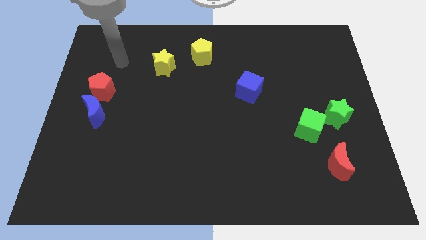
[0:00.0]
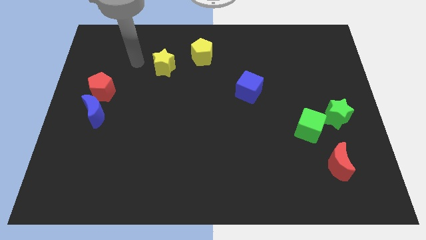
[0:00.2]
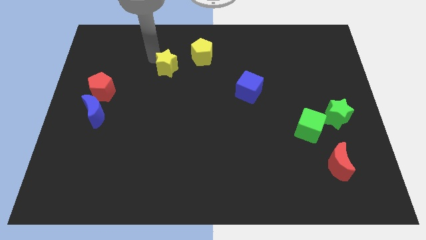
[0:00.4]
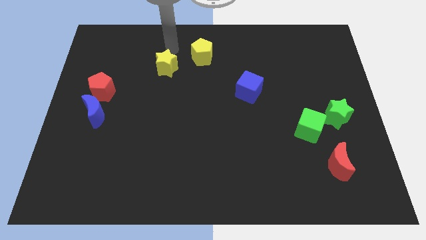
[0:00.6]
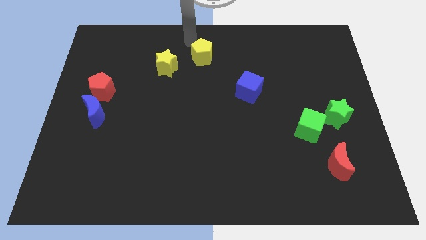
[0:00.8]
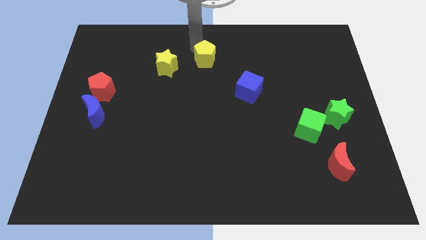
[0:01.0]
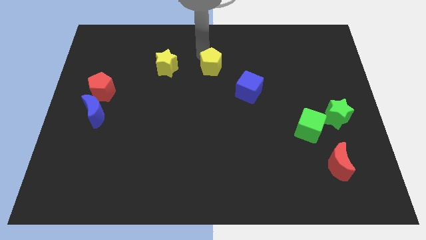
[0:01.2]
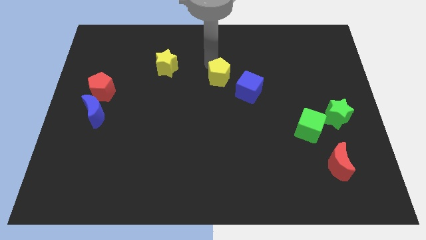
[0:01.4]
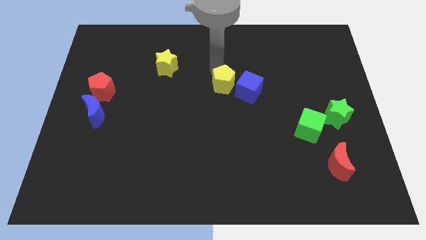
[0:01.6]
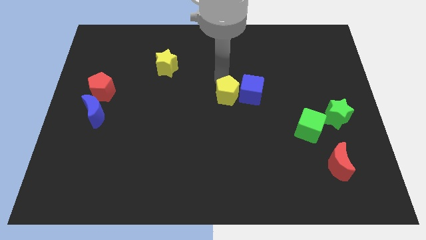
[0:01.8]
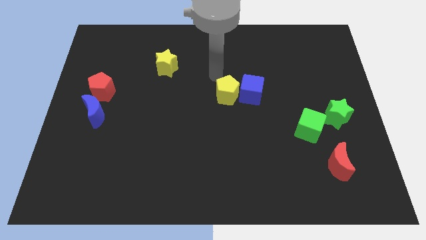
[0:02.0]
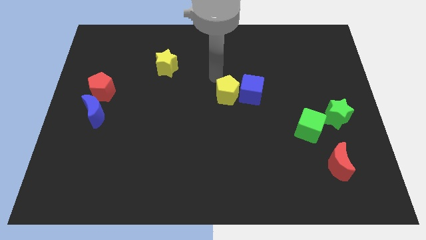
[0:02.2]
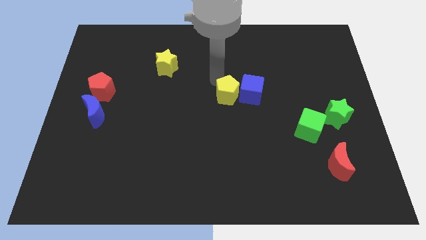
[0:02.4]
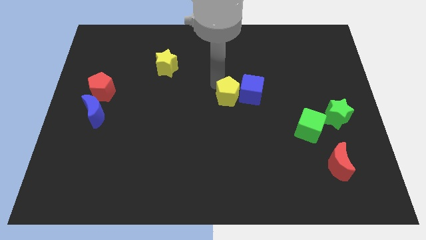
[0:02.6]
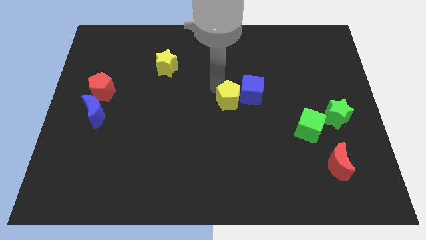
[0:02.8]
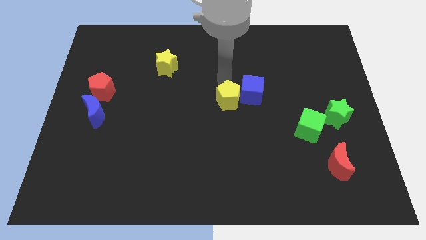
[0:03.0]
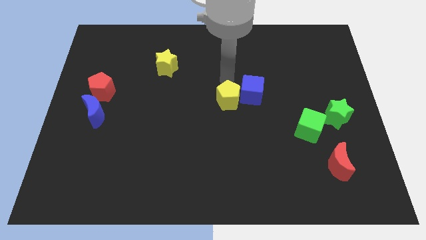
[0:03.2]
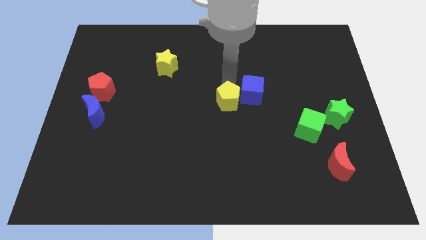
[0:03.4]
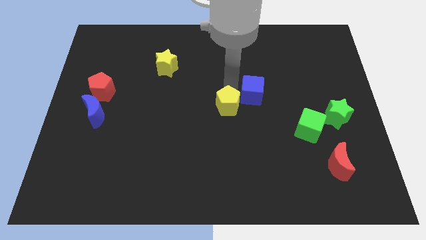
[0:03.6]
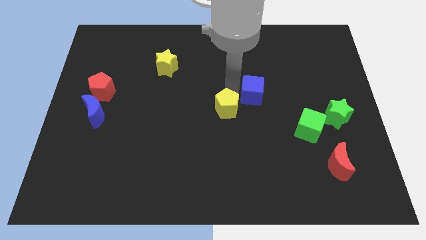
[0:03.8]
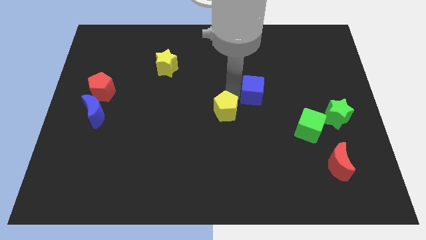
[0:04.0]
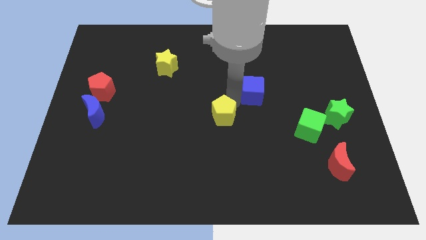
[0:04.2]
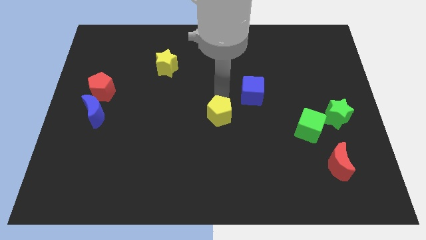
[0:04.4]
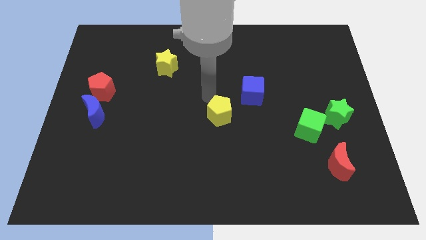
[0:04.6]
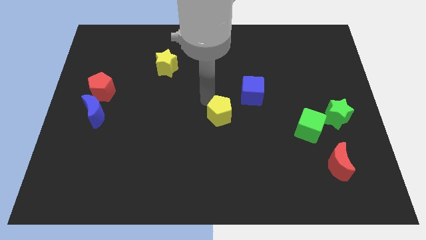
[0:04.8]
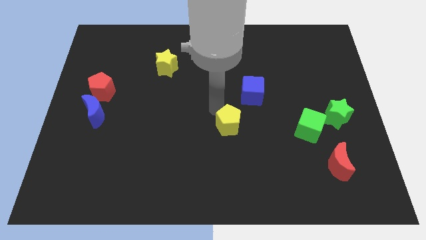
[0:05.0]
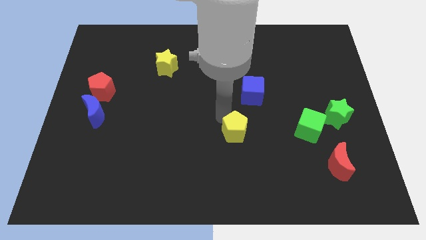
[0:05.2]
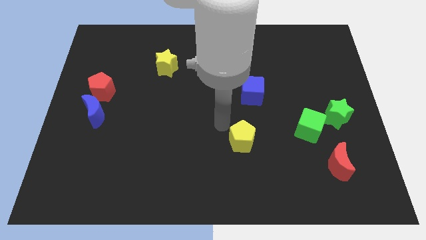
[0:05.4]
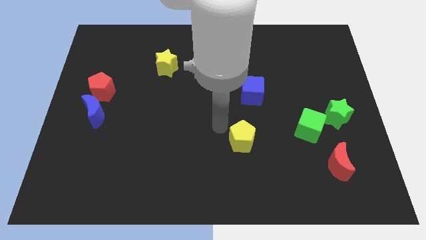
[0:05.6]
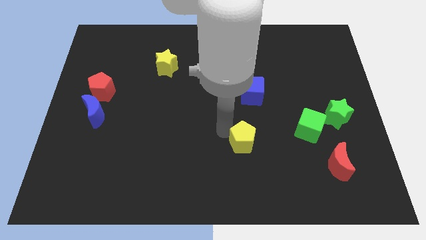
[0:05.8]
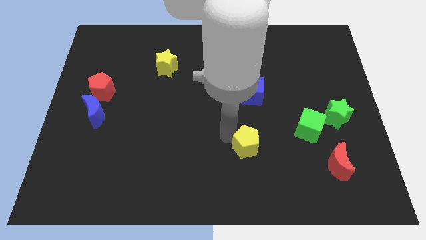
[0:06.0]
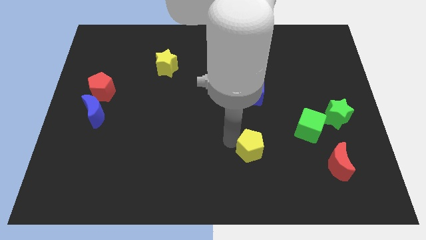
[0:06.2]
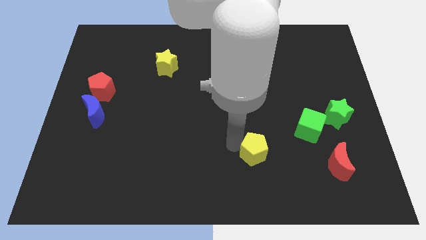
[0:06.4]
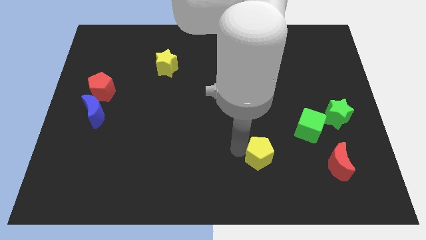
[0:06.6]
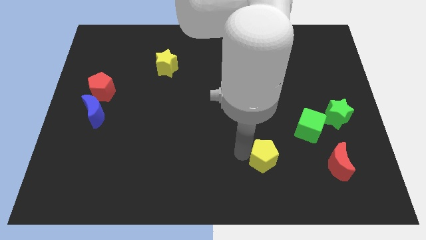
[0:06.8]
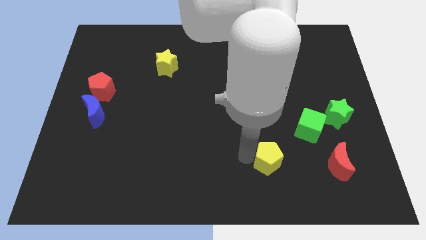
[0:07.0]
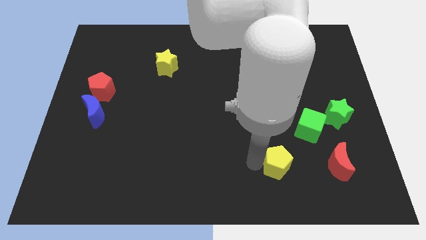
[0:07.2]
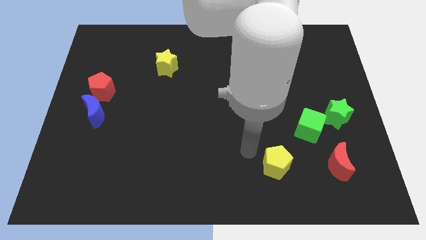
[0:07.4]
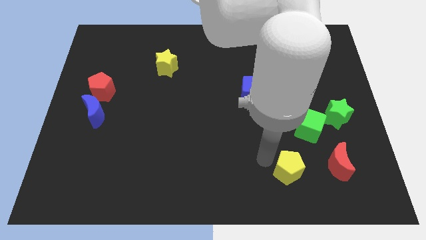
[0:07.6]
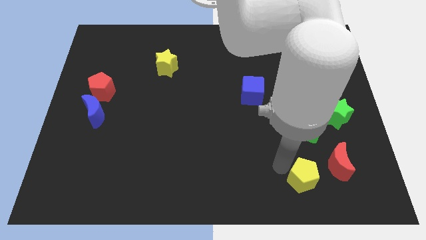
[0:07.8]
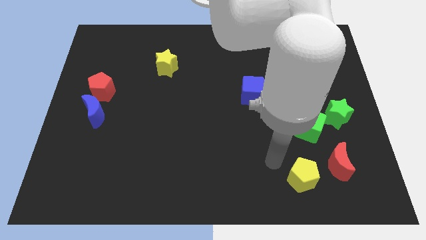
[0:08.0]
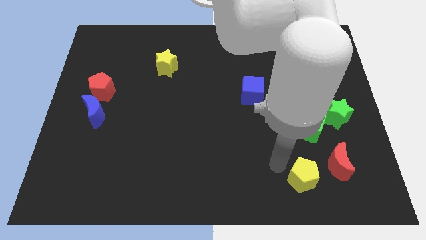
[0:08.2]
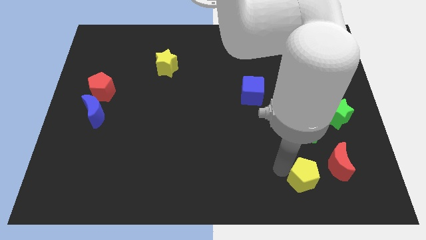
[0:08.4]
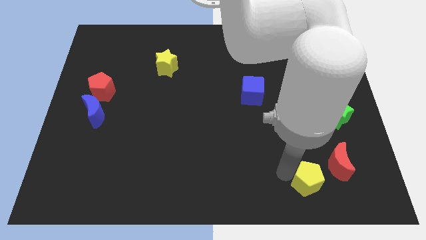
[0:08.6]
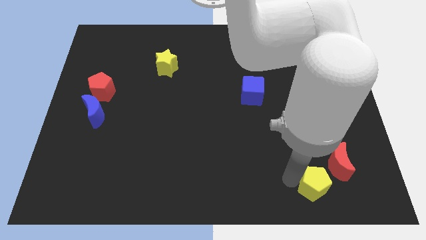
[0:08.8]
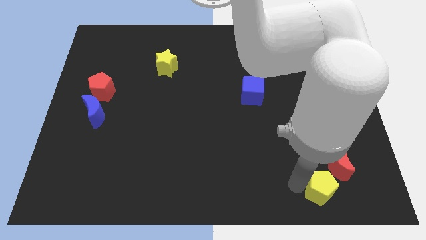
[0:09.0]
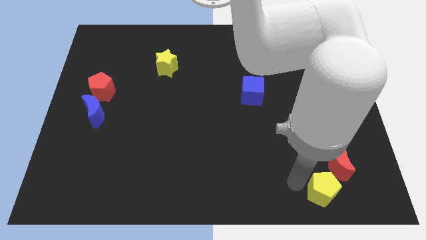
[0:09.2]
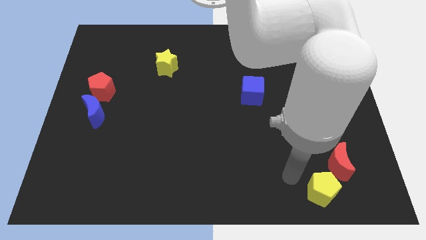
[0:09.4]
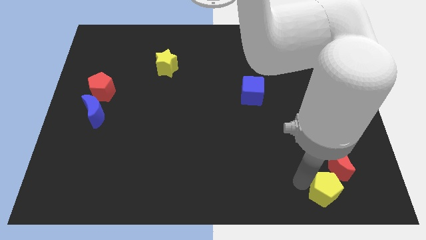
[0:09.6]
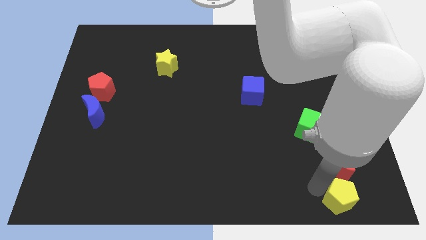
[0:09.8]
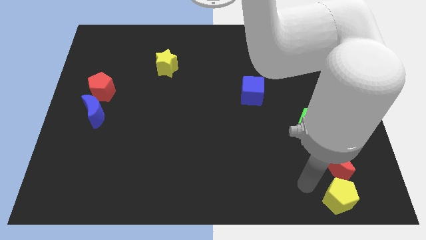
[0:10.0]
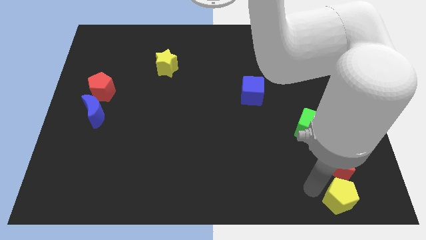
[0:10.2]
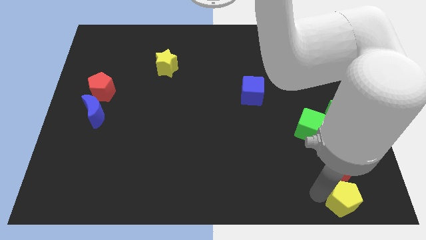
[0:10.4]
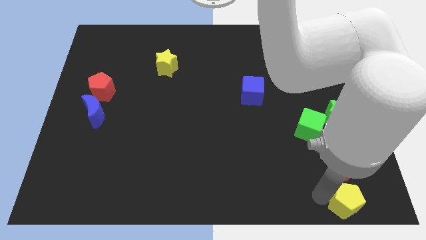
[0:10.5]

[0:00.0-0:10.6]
put the yellow pentagon to the bottom right

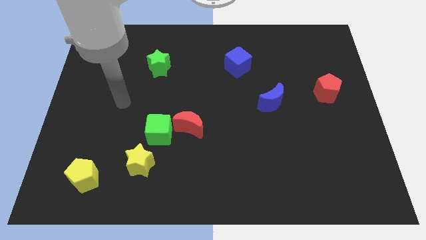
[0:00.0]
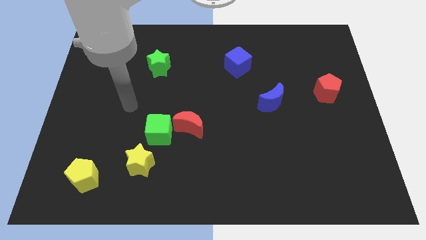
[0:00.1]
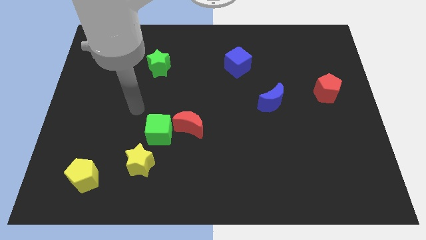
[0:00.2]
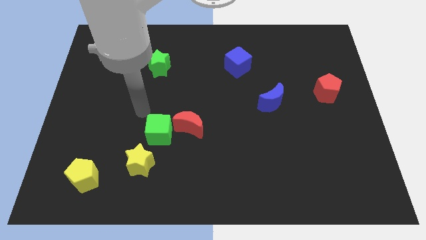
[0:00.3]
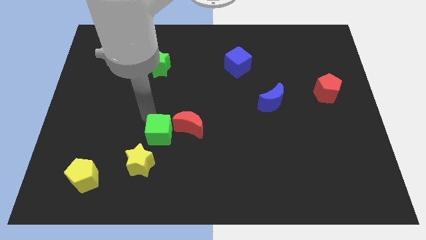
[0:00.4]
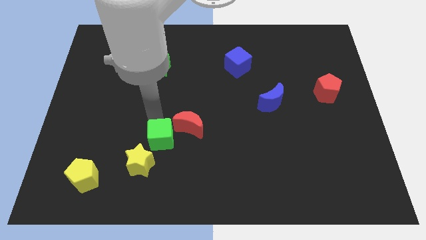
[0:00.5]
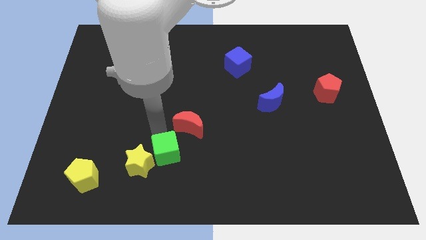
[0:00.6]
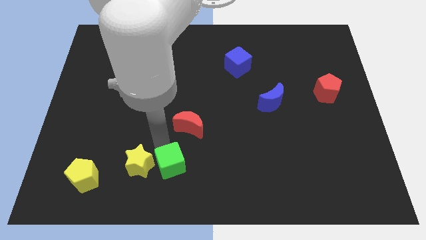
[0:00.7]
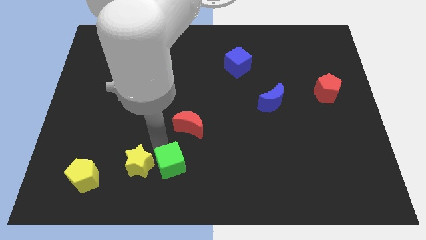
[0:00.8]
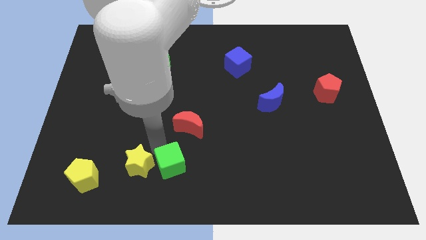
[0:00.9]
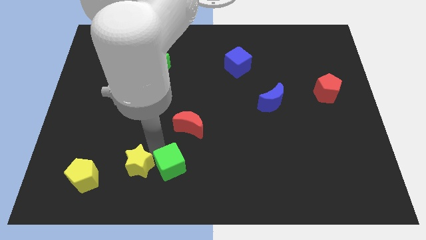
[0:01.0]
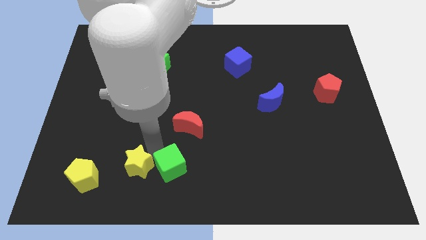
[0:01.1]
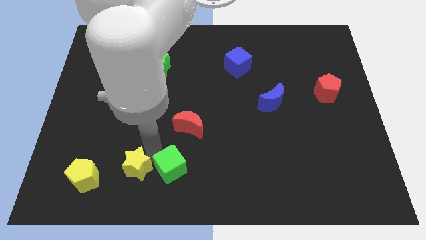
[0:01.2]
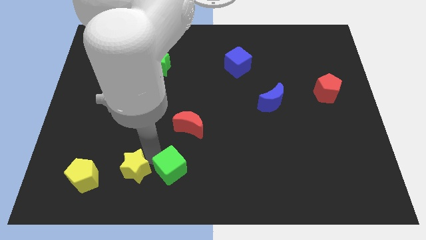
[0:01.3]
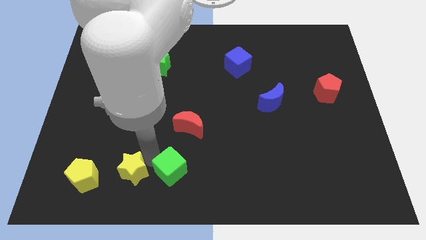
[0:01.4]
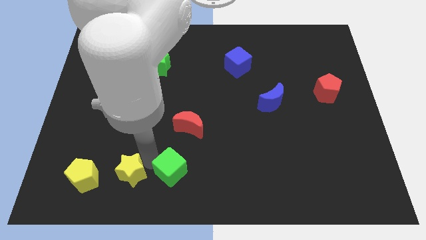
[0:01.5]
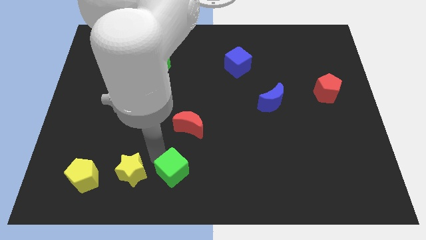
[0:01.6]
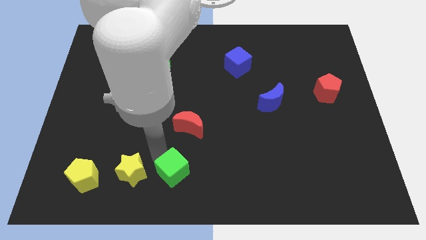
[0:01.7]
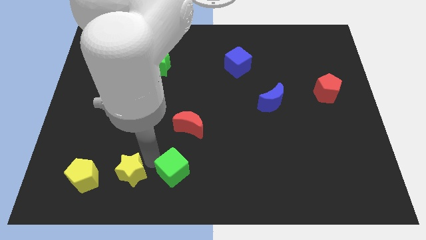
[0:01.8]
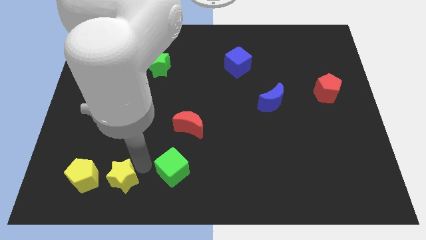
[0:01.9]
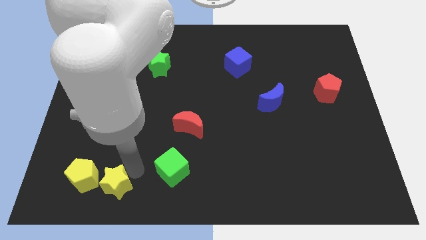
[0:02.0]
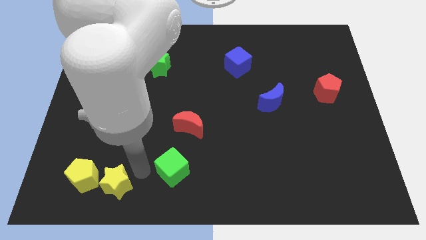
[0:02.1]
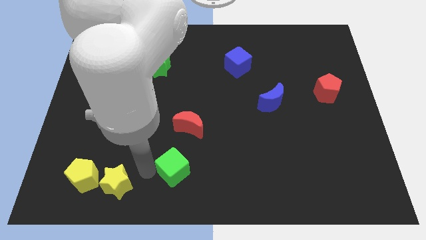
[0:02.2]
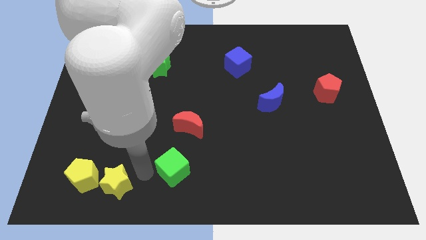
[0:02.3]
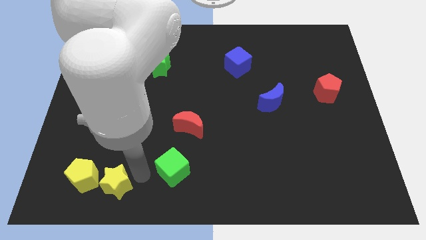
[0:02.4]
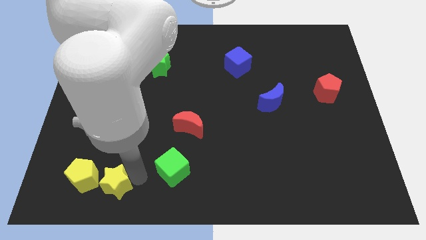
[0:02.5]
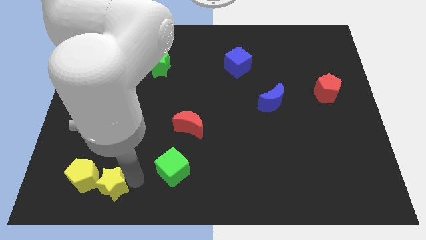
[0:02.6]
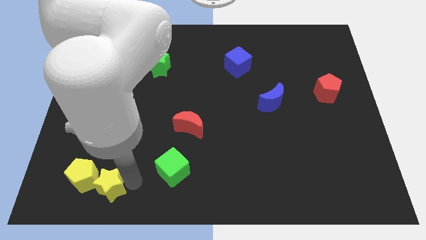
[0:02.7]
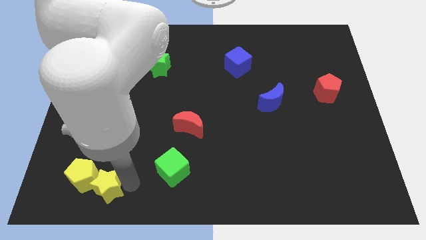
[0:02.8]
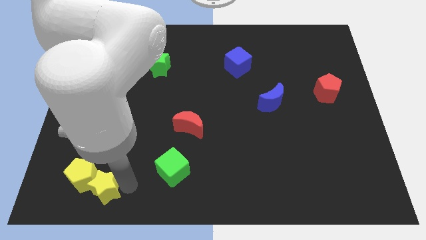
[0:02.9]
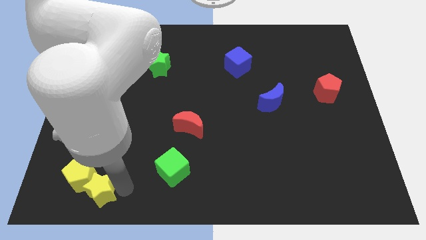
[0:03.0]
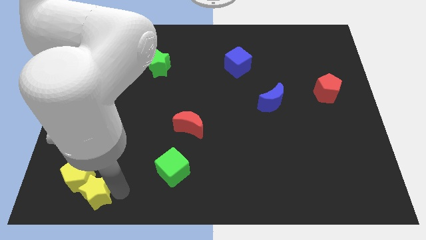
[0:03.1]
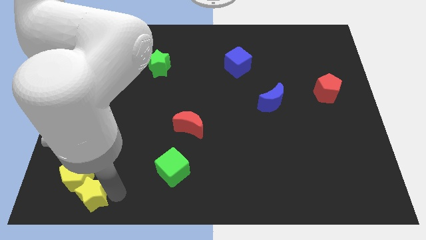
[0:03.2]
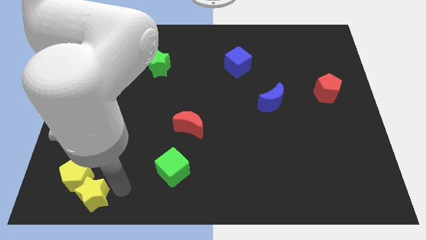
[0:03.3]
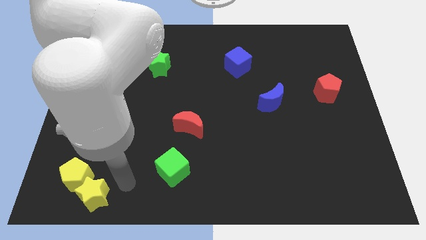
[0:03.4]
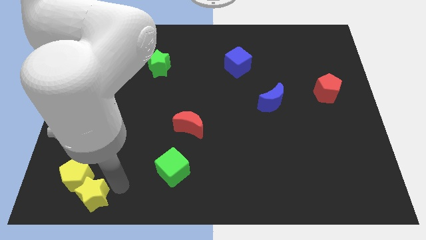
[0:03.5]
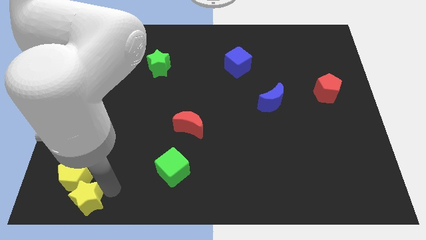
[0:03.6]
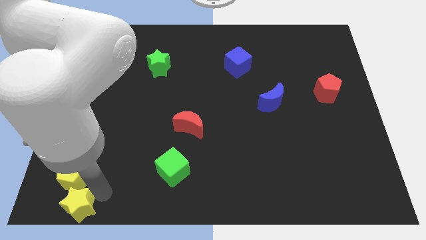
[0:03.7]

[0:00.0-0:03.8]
push the yellow star to the bottom left
